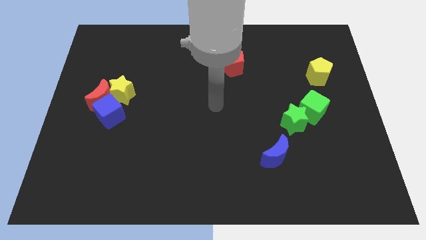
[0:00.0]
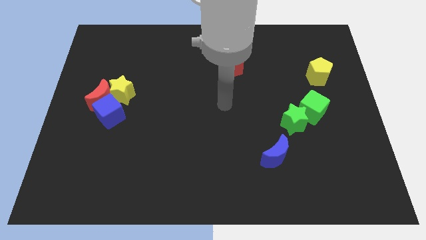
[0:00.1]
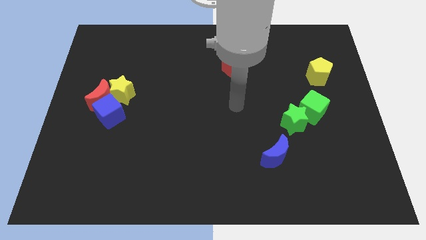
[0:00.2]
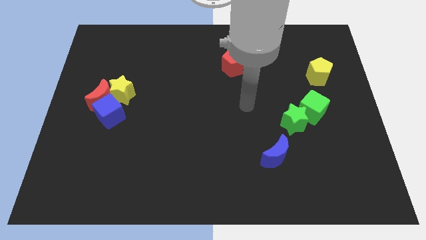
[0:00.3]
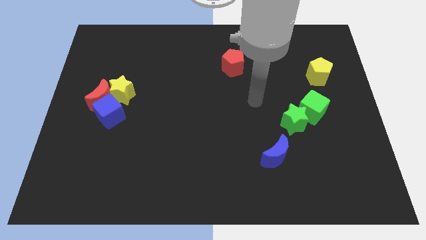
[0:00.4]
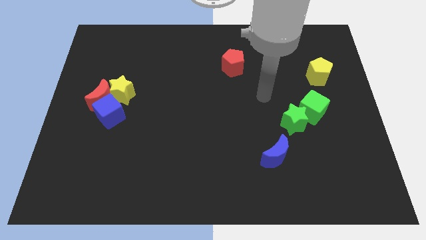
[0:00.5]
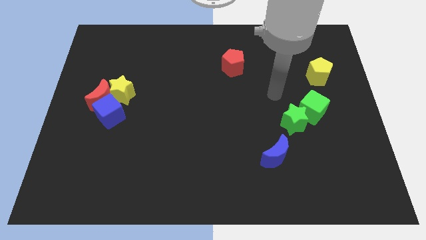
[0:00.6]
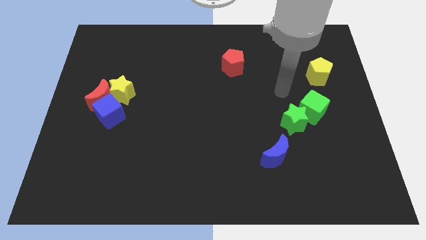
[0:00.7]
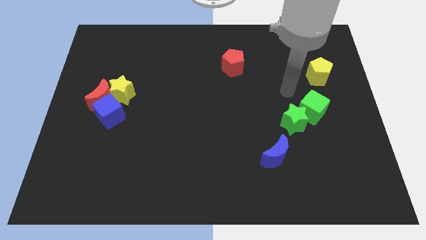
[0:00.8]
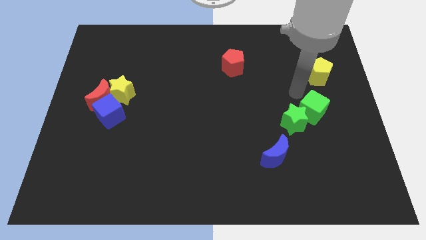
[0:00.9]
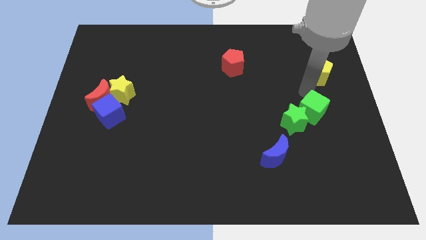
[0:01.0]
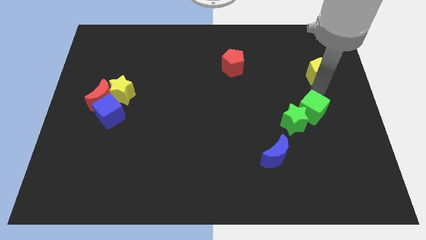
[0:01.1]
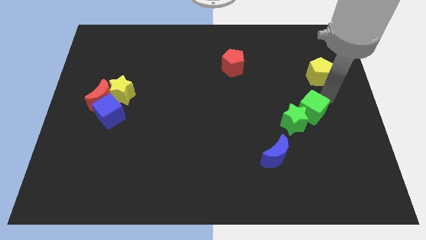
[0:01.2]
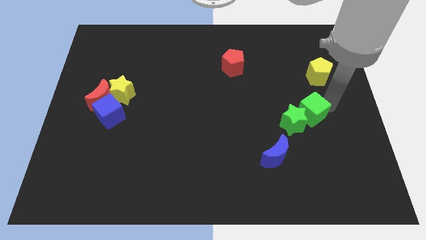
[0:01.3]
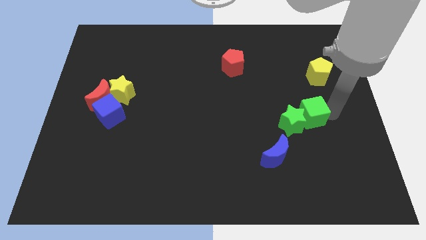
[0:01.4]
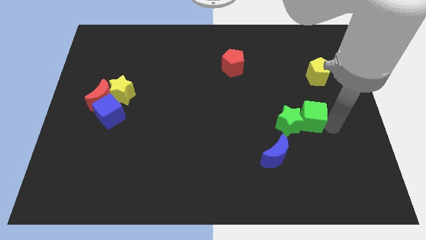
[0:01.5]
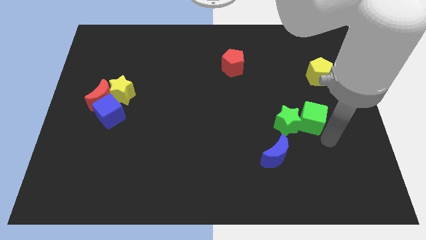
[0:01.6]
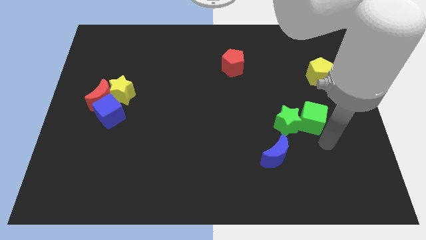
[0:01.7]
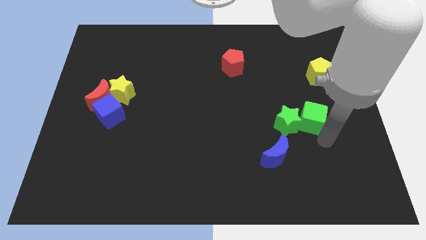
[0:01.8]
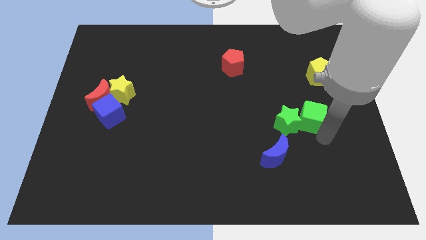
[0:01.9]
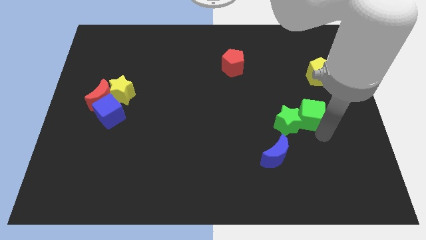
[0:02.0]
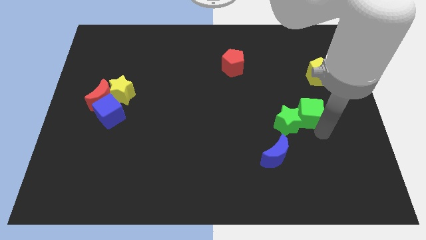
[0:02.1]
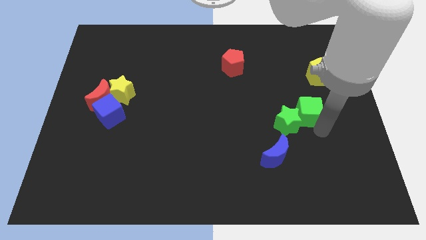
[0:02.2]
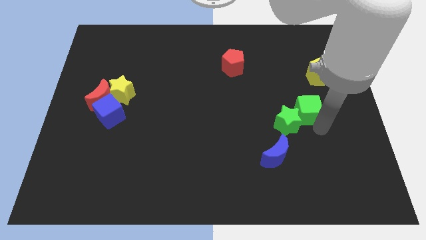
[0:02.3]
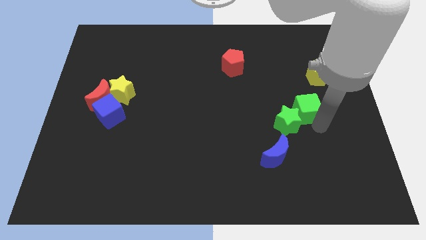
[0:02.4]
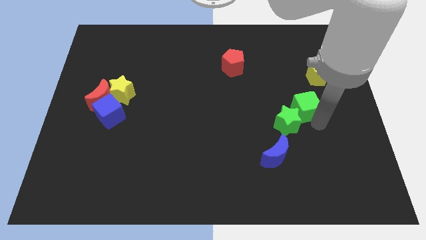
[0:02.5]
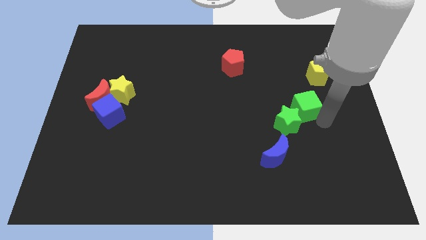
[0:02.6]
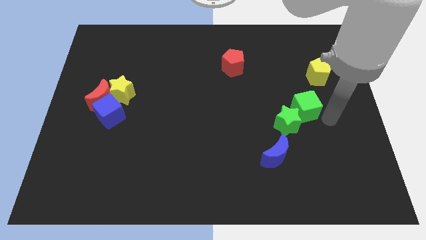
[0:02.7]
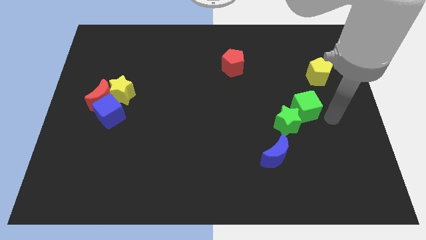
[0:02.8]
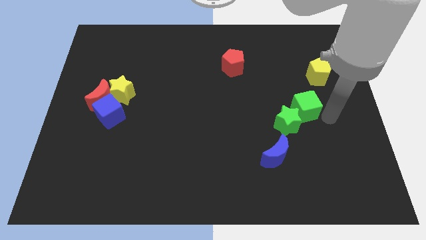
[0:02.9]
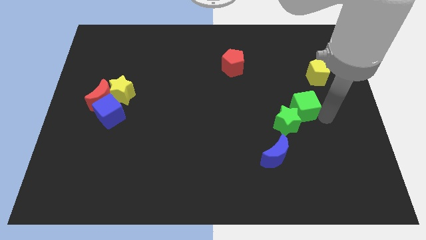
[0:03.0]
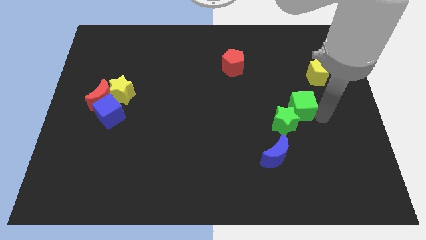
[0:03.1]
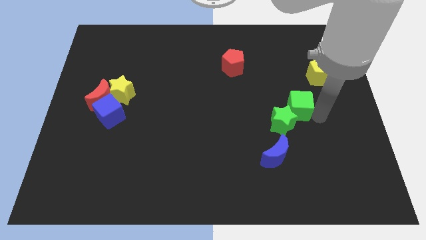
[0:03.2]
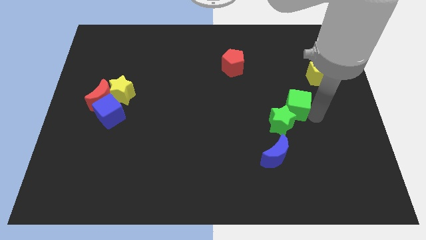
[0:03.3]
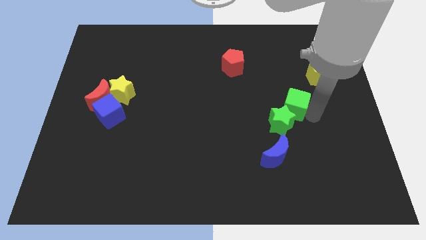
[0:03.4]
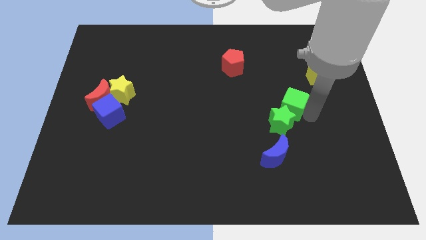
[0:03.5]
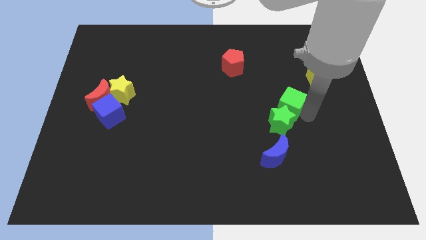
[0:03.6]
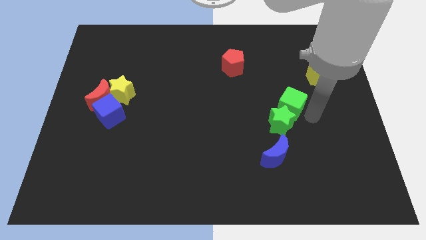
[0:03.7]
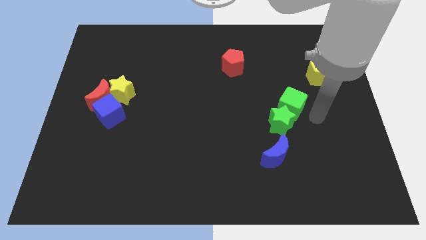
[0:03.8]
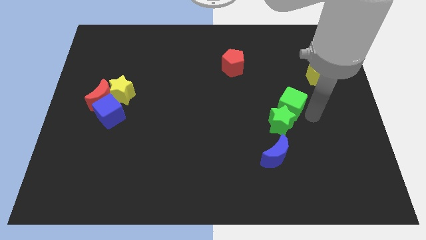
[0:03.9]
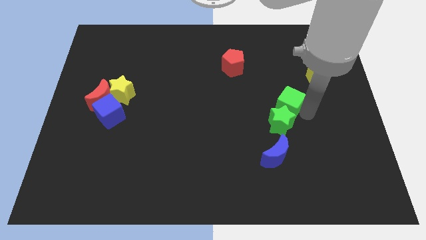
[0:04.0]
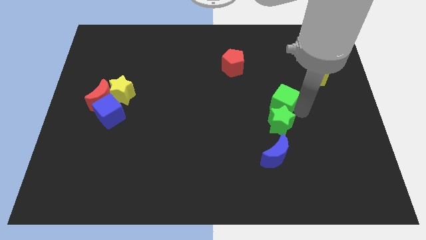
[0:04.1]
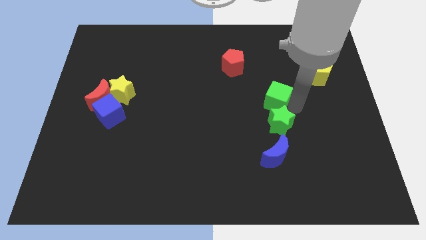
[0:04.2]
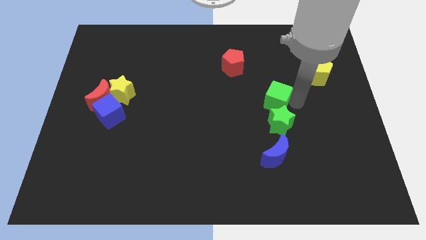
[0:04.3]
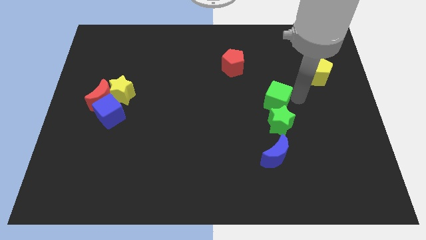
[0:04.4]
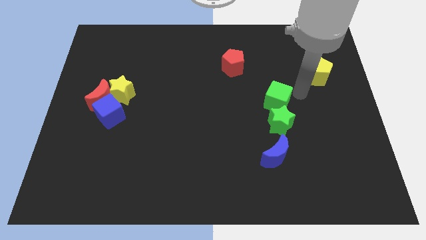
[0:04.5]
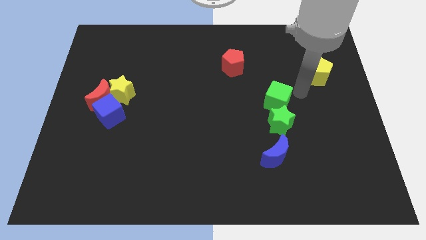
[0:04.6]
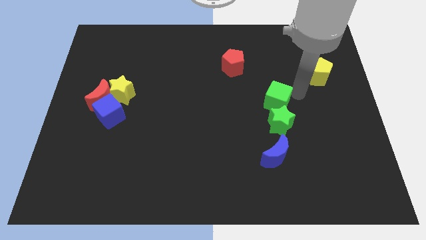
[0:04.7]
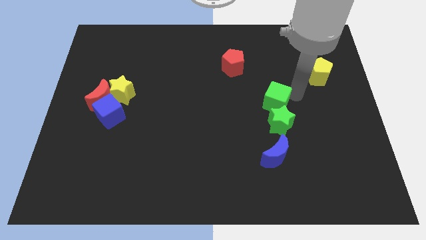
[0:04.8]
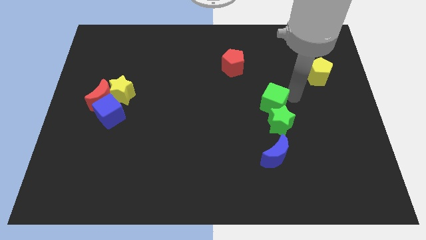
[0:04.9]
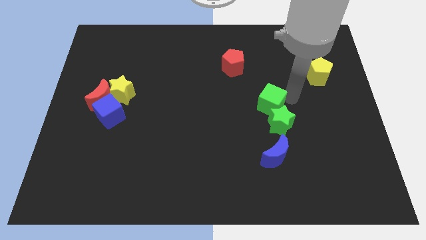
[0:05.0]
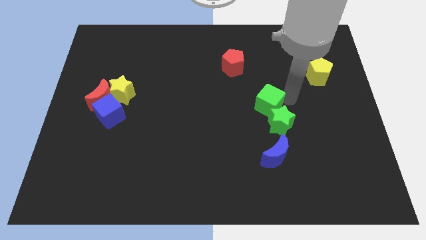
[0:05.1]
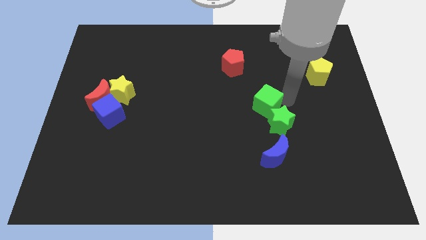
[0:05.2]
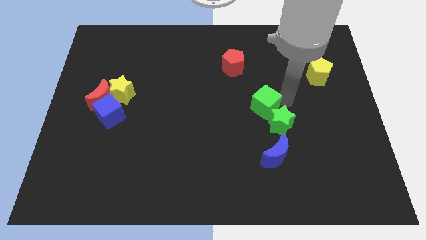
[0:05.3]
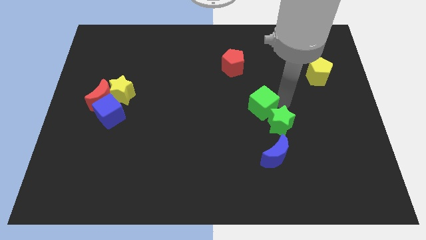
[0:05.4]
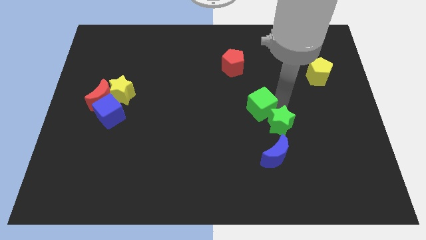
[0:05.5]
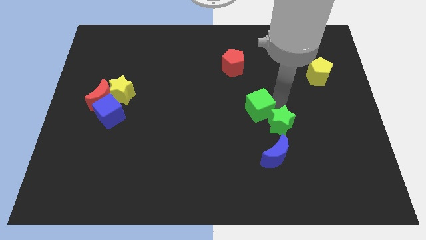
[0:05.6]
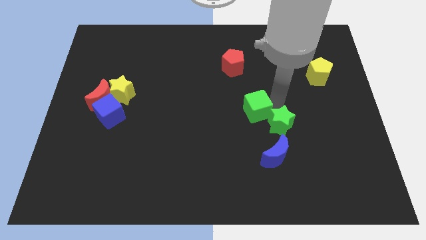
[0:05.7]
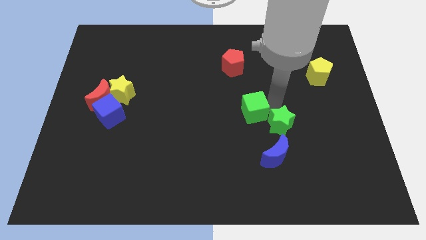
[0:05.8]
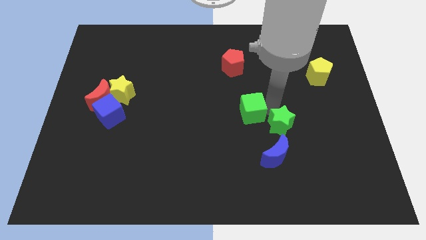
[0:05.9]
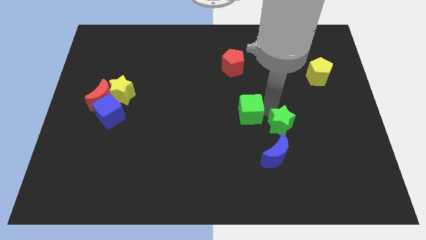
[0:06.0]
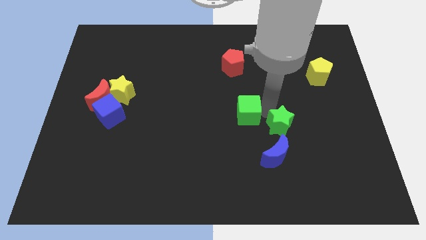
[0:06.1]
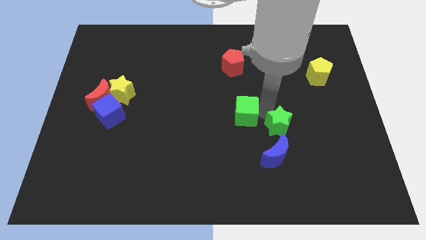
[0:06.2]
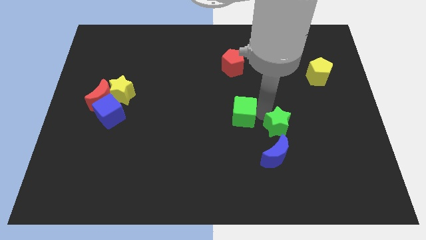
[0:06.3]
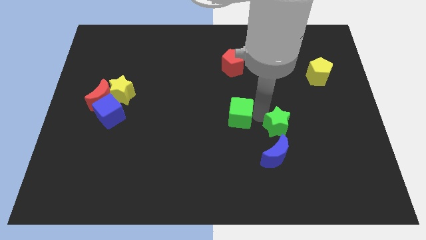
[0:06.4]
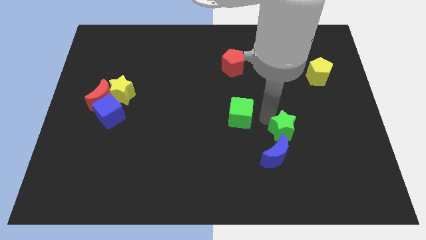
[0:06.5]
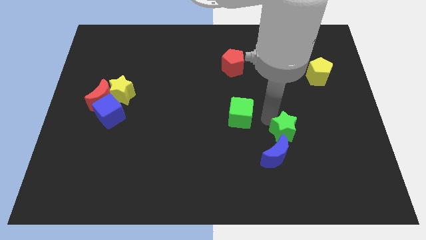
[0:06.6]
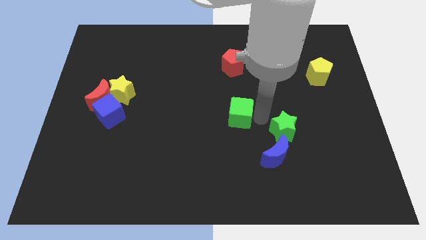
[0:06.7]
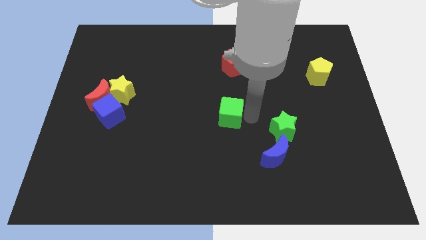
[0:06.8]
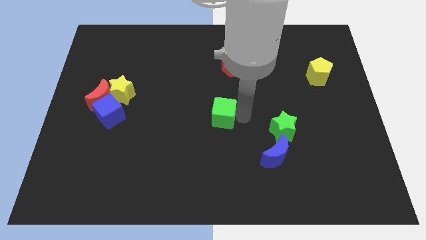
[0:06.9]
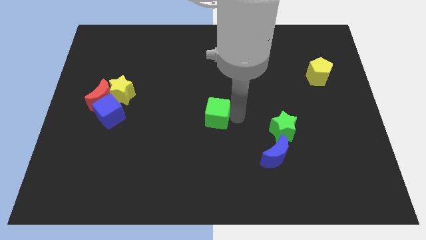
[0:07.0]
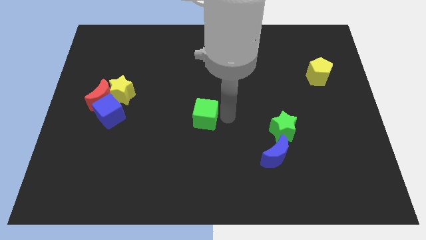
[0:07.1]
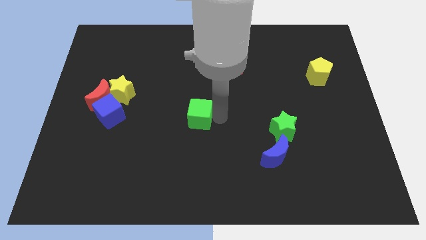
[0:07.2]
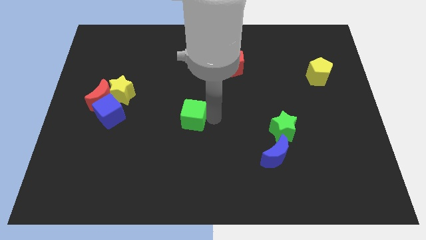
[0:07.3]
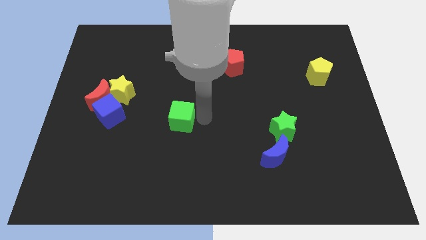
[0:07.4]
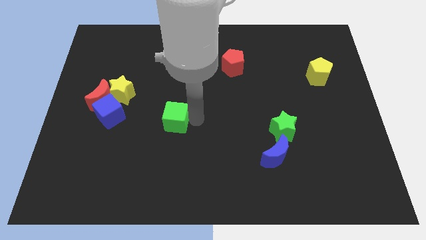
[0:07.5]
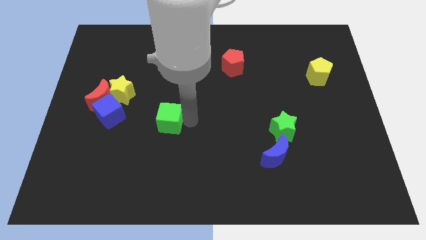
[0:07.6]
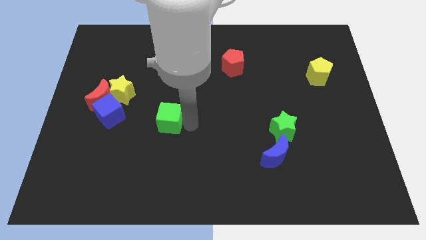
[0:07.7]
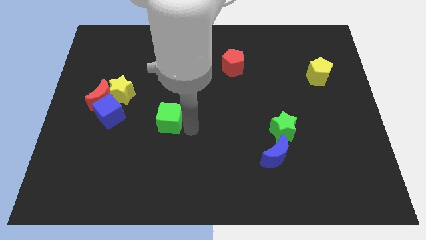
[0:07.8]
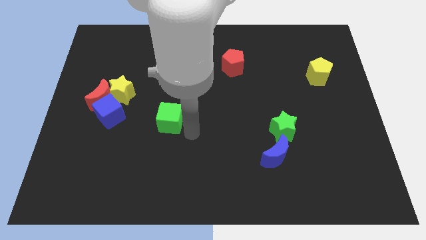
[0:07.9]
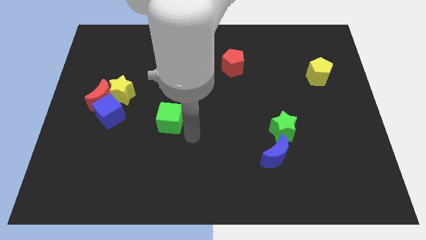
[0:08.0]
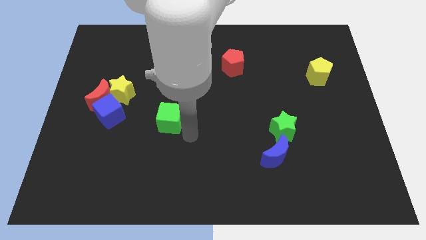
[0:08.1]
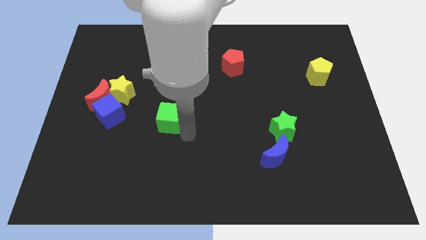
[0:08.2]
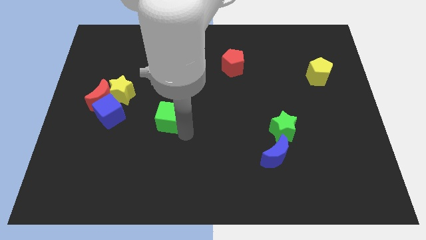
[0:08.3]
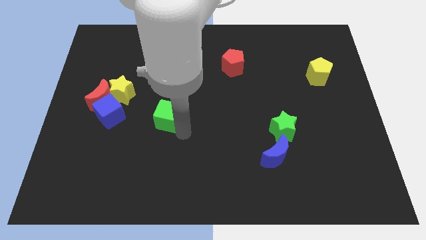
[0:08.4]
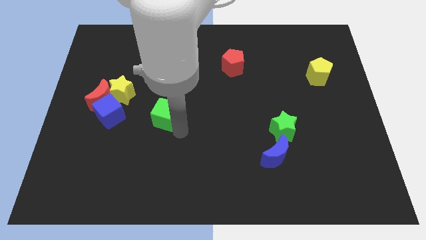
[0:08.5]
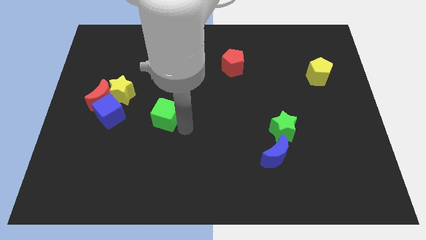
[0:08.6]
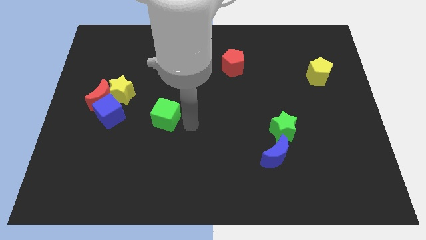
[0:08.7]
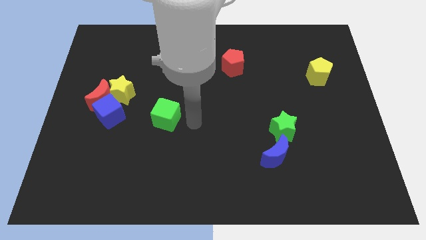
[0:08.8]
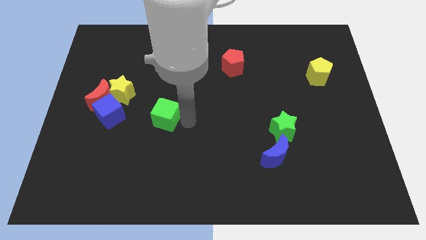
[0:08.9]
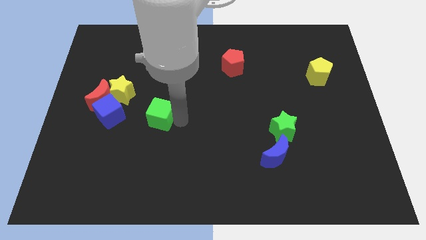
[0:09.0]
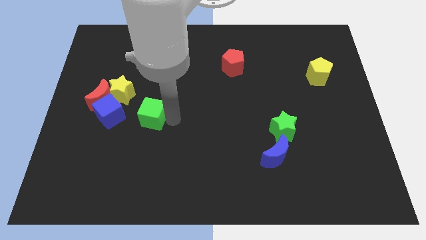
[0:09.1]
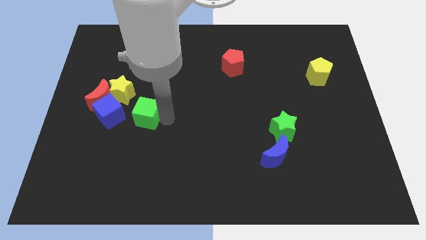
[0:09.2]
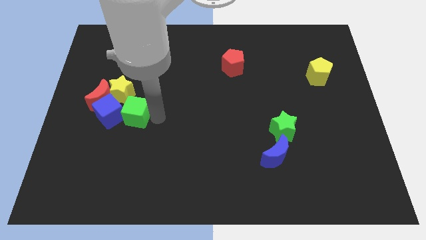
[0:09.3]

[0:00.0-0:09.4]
slide the green cube close to the blue cube
